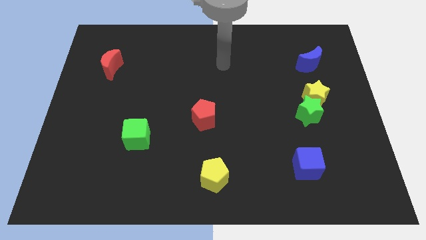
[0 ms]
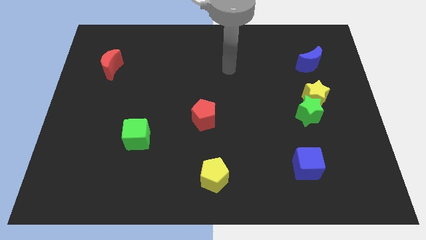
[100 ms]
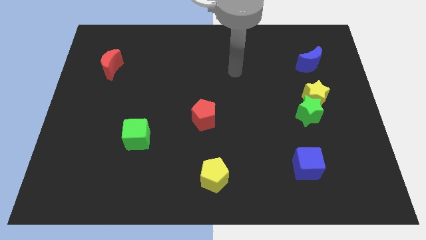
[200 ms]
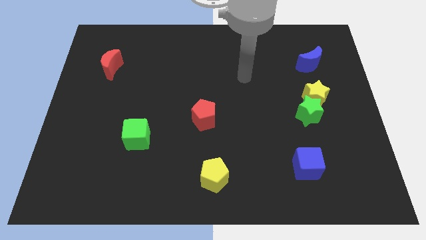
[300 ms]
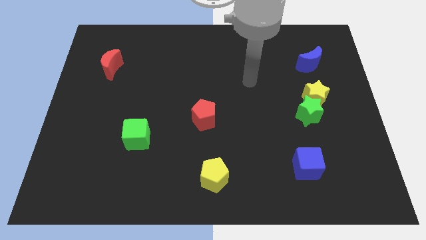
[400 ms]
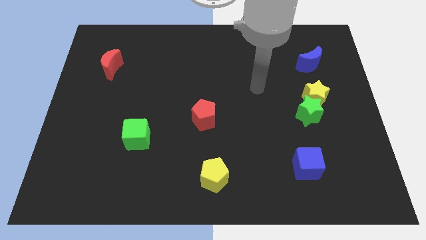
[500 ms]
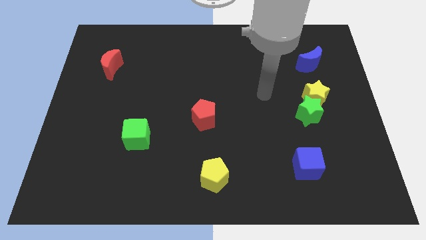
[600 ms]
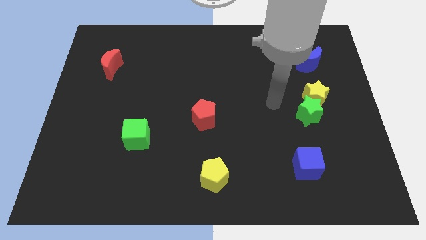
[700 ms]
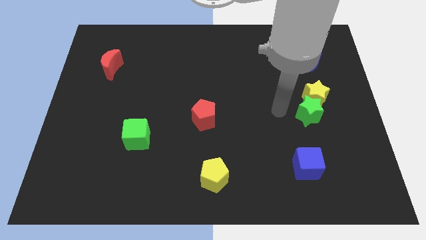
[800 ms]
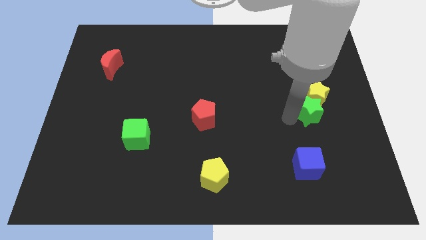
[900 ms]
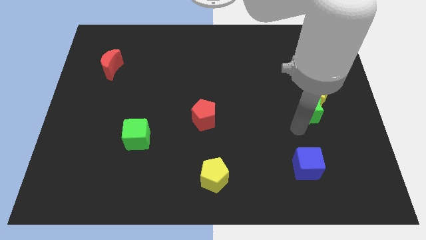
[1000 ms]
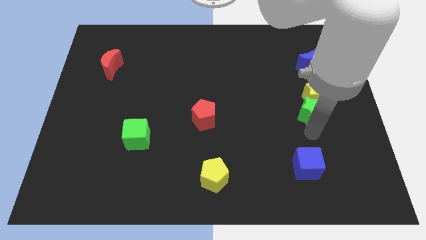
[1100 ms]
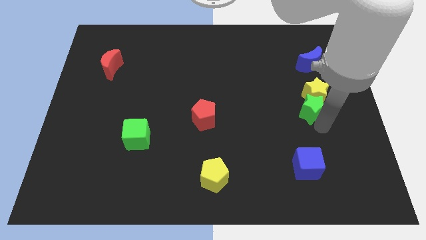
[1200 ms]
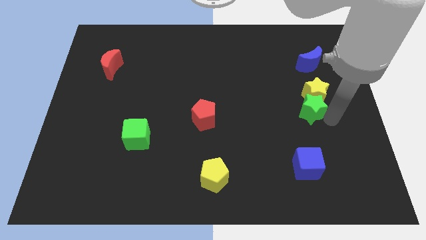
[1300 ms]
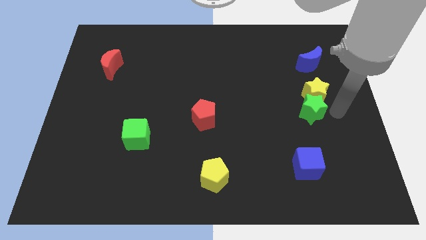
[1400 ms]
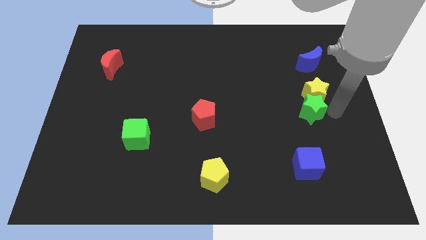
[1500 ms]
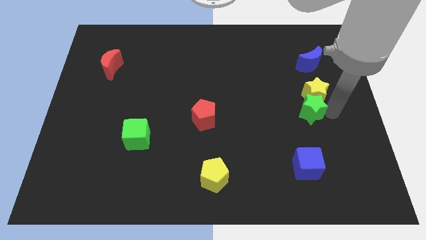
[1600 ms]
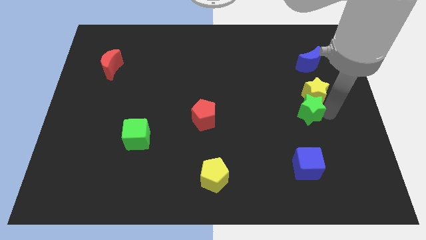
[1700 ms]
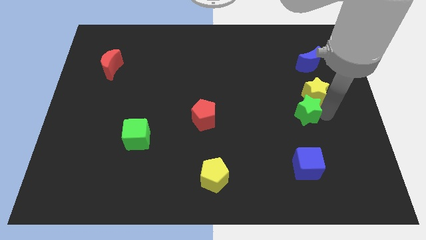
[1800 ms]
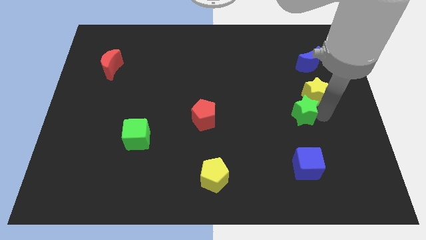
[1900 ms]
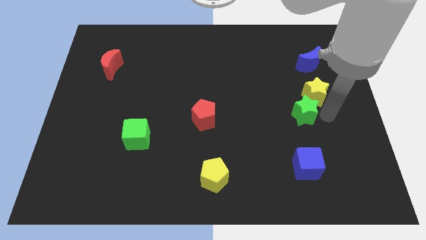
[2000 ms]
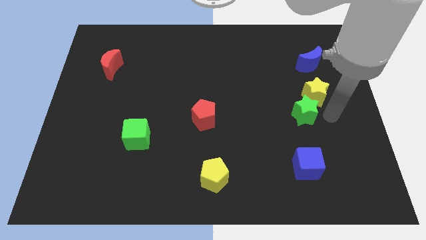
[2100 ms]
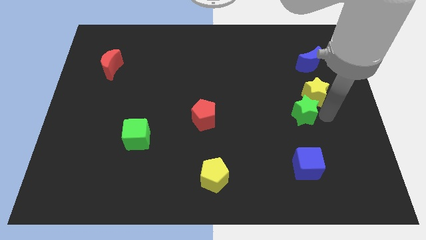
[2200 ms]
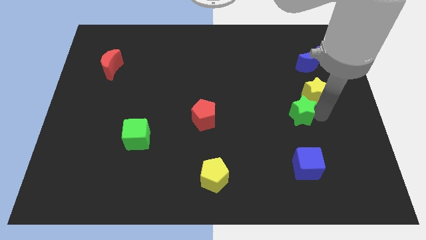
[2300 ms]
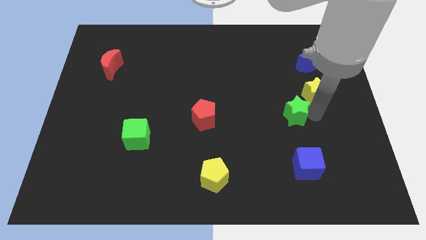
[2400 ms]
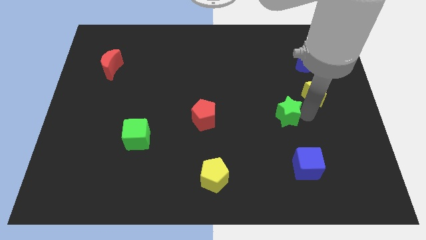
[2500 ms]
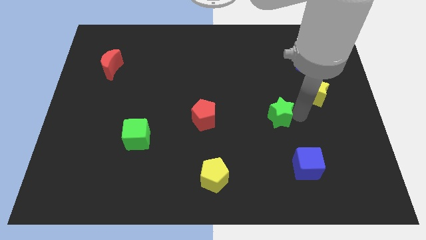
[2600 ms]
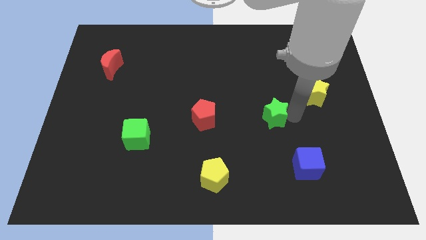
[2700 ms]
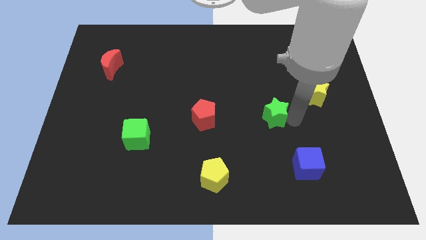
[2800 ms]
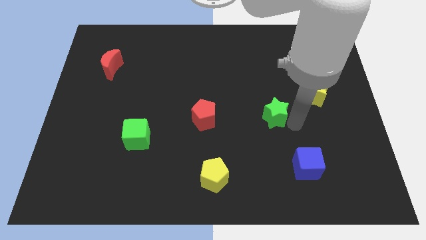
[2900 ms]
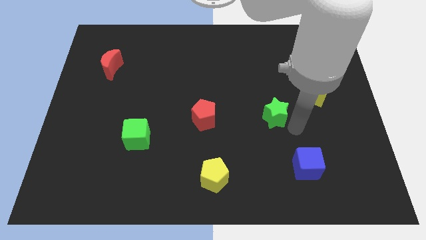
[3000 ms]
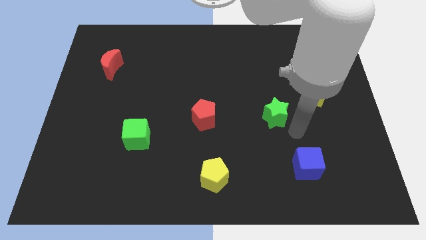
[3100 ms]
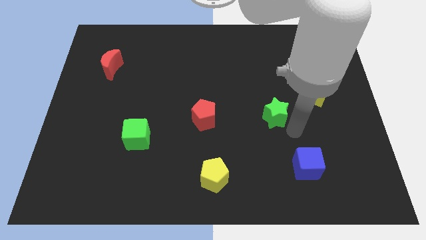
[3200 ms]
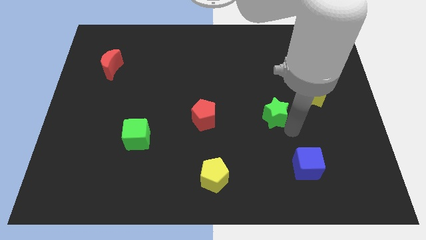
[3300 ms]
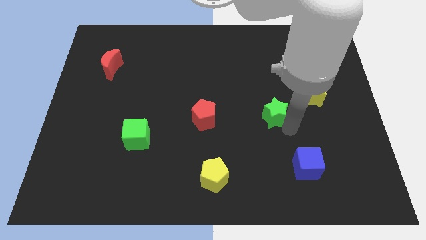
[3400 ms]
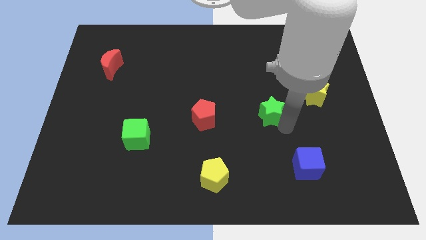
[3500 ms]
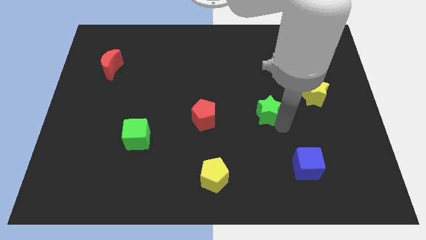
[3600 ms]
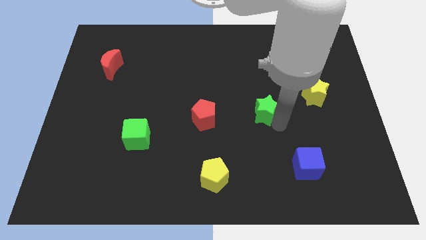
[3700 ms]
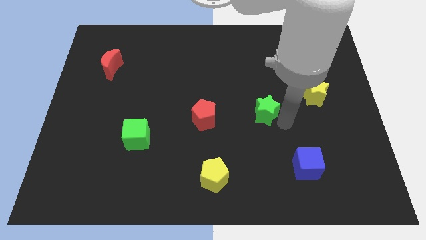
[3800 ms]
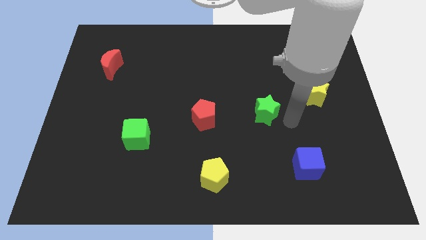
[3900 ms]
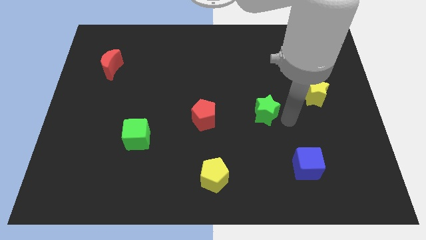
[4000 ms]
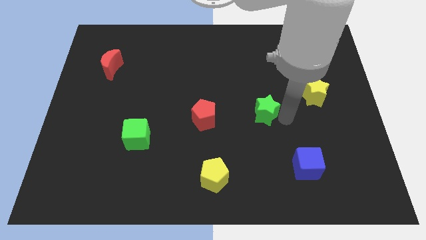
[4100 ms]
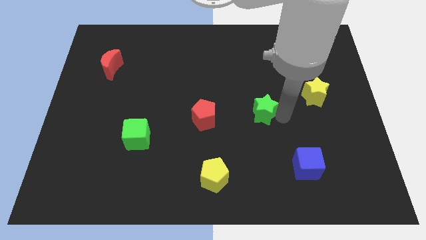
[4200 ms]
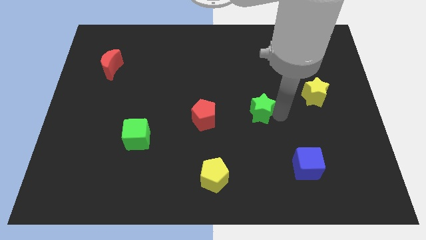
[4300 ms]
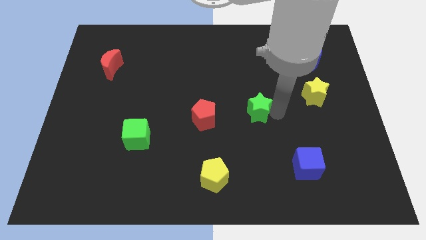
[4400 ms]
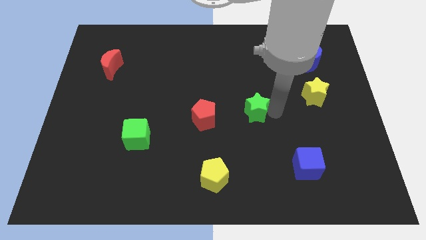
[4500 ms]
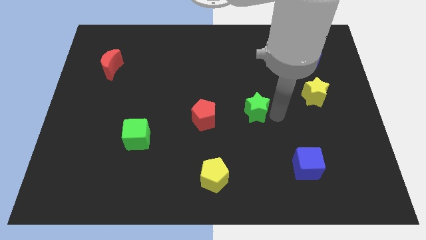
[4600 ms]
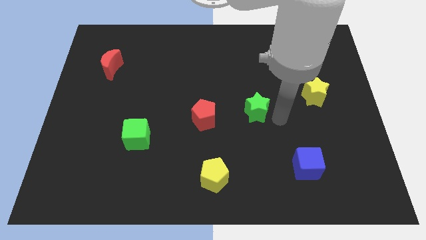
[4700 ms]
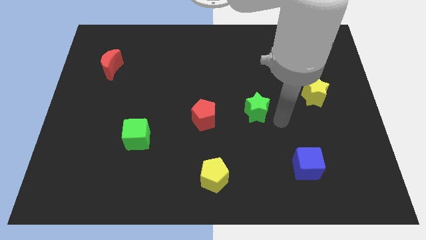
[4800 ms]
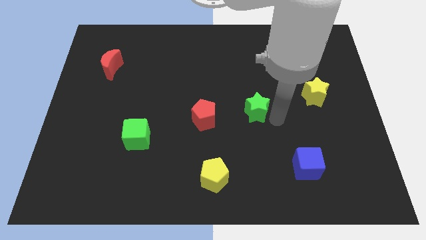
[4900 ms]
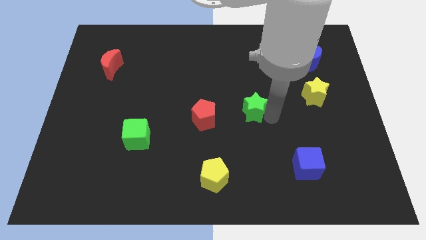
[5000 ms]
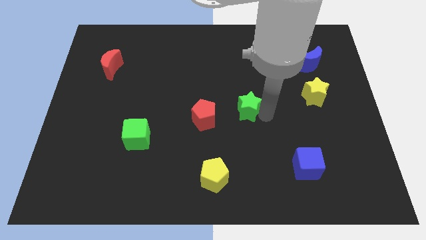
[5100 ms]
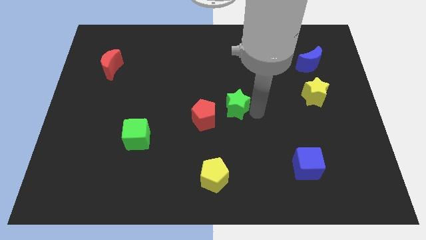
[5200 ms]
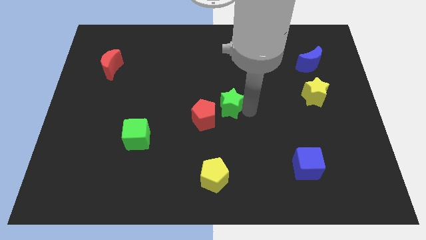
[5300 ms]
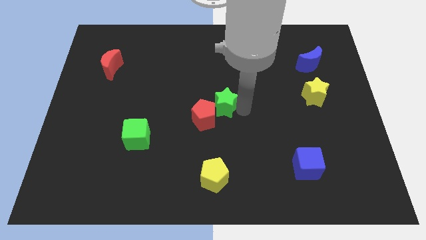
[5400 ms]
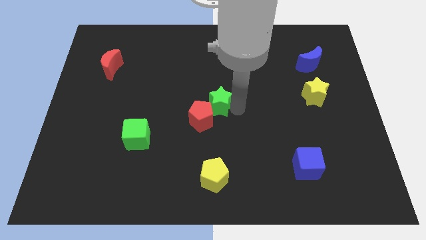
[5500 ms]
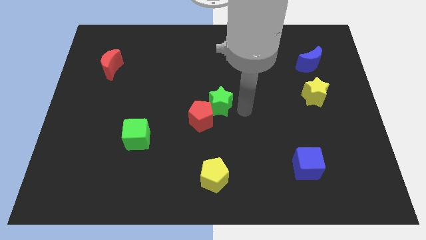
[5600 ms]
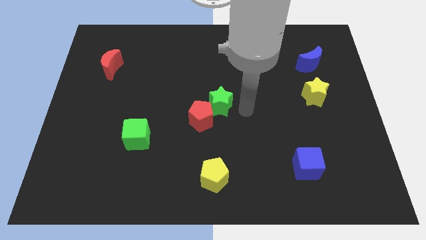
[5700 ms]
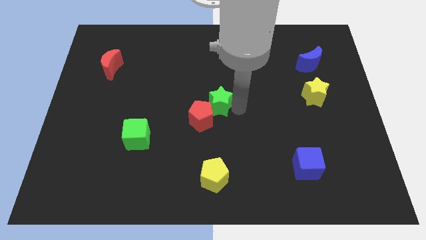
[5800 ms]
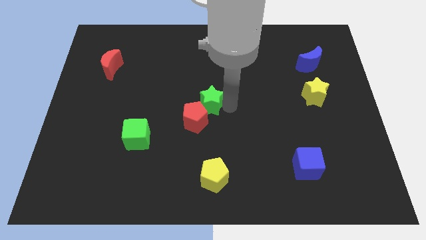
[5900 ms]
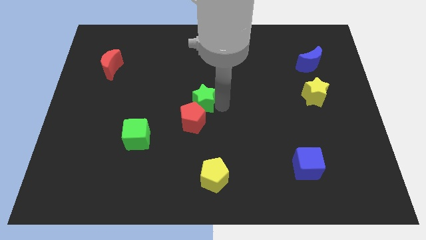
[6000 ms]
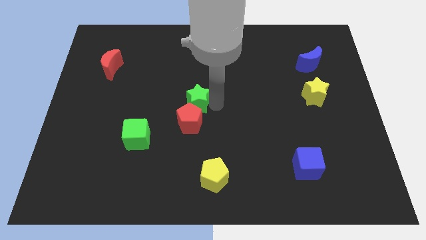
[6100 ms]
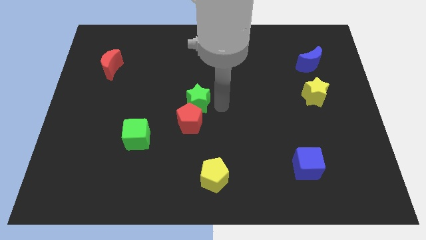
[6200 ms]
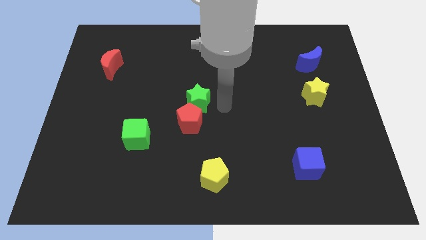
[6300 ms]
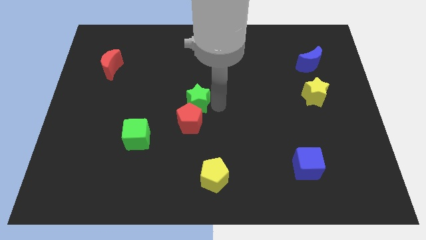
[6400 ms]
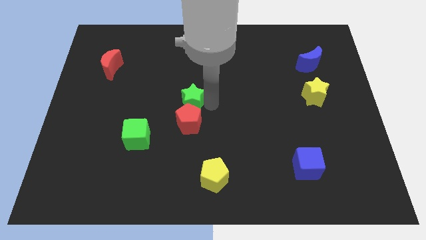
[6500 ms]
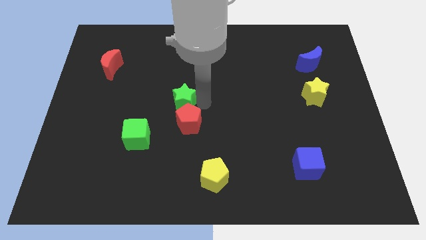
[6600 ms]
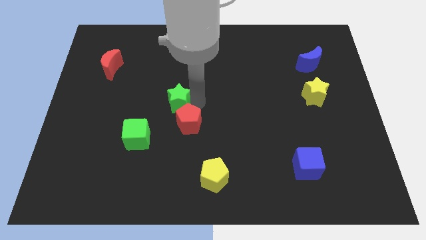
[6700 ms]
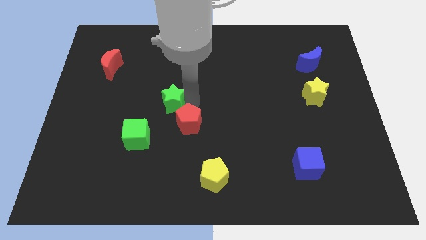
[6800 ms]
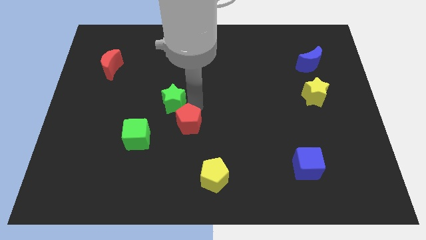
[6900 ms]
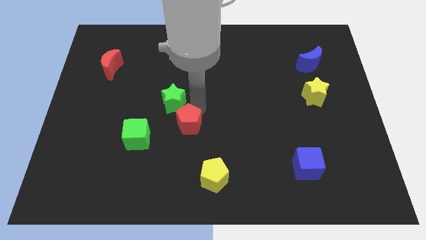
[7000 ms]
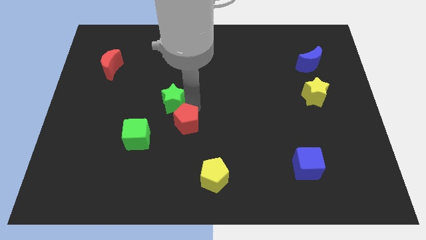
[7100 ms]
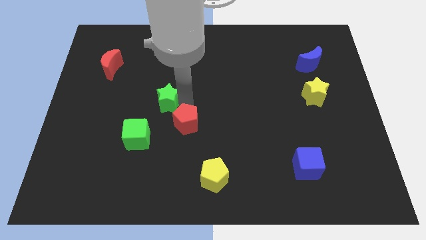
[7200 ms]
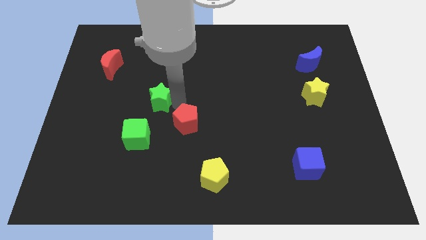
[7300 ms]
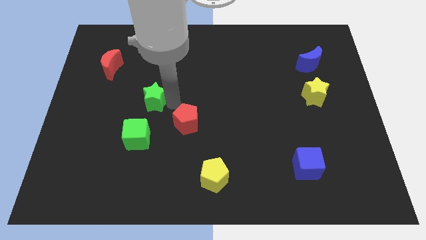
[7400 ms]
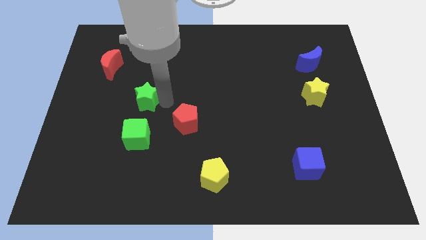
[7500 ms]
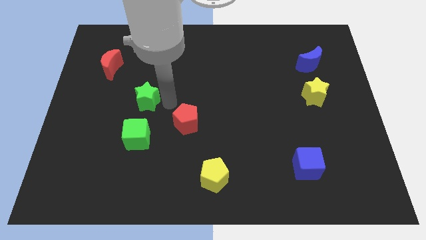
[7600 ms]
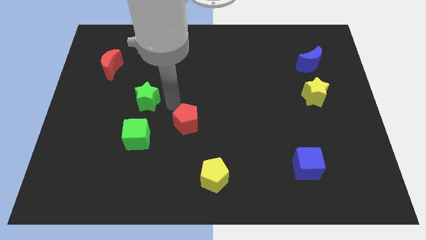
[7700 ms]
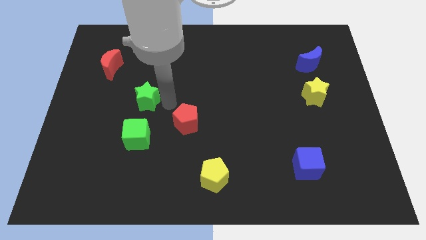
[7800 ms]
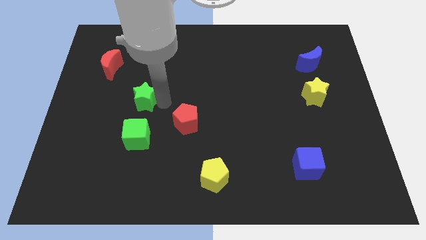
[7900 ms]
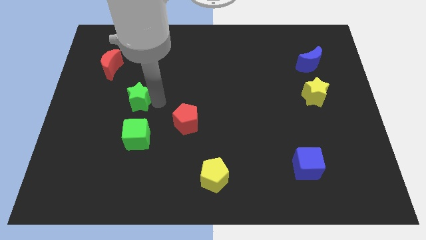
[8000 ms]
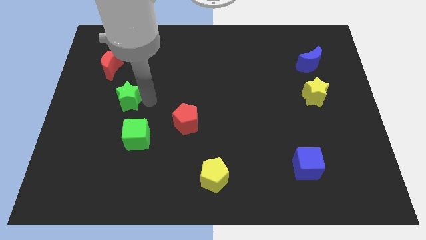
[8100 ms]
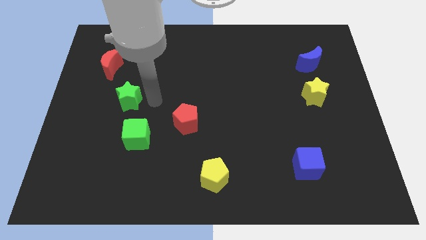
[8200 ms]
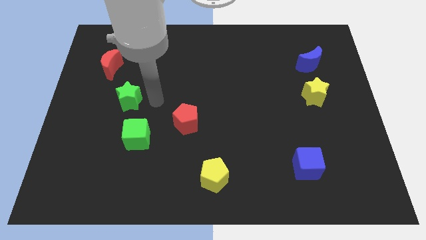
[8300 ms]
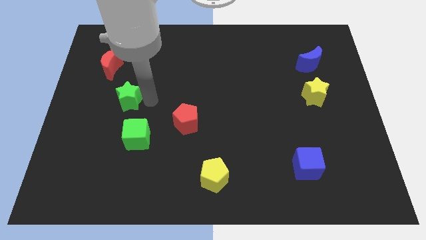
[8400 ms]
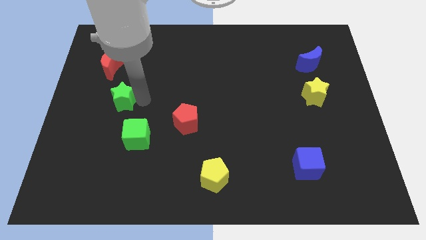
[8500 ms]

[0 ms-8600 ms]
put the green star to the bottom side of the red moon
